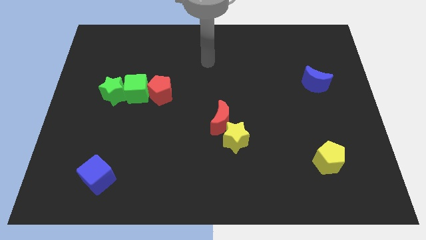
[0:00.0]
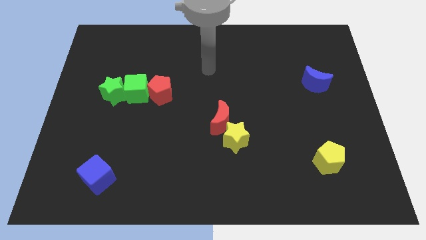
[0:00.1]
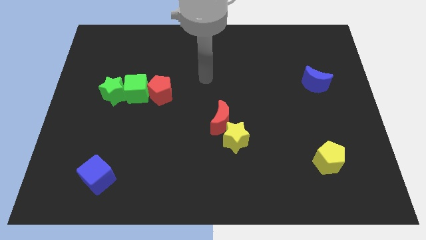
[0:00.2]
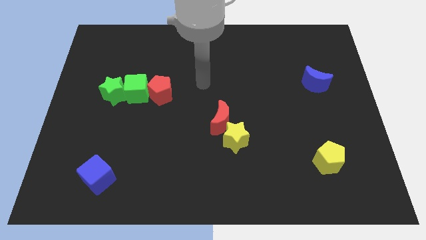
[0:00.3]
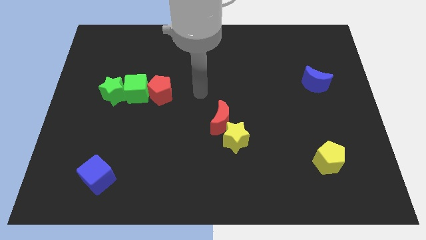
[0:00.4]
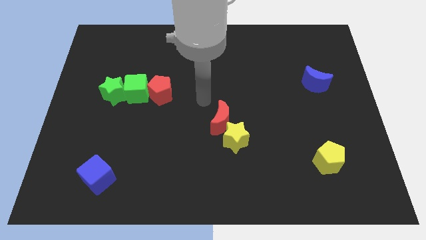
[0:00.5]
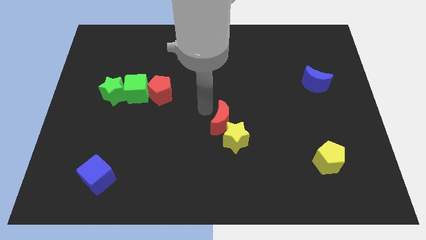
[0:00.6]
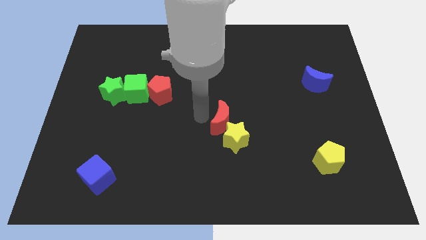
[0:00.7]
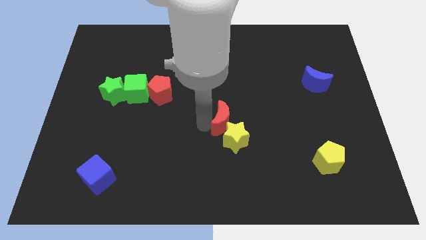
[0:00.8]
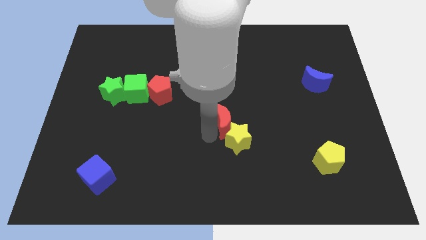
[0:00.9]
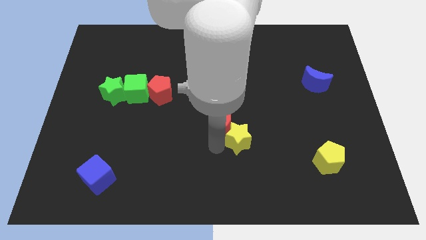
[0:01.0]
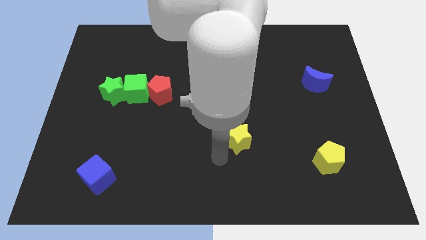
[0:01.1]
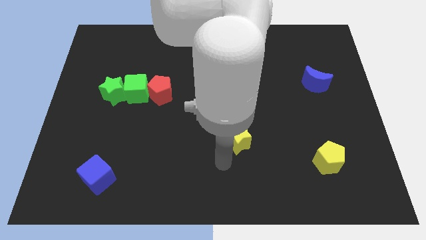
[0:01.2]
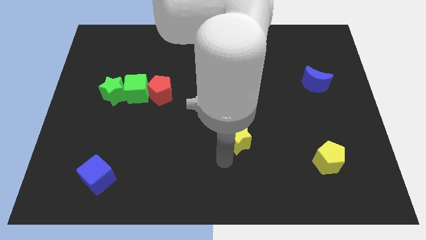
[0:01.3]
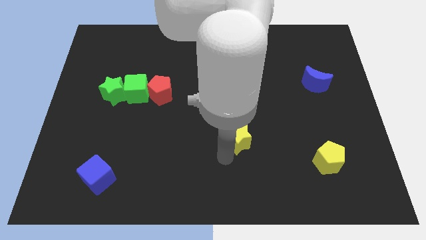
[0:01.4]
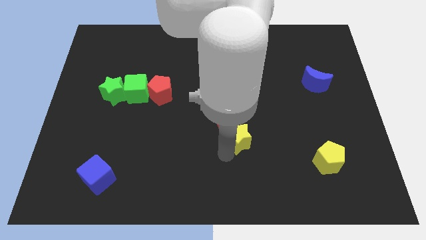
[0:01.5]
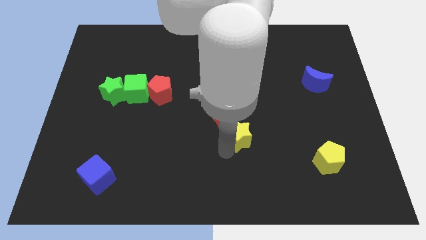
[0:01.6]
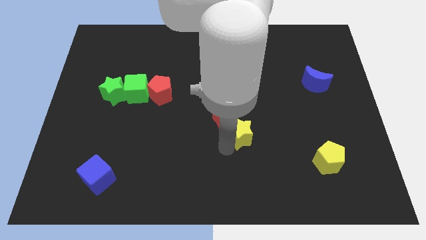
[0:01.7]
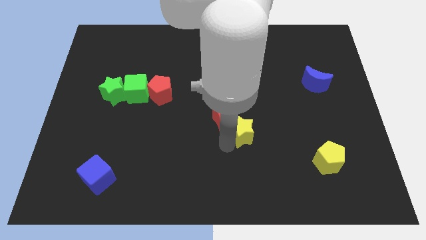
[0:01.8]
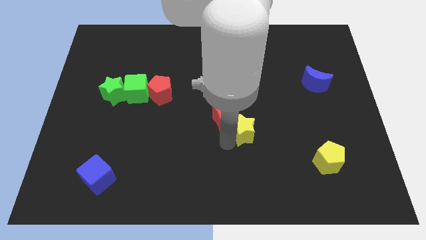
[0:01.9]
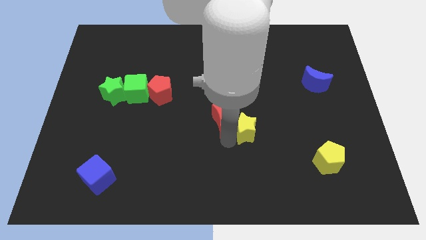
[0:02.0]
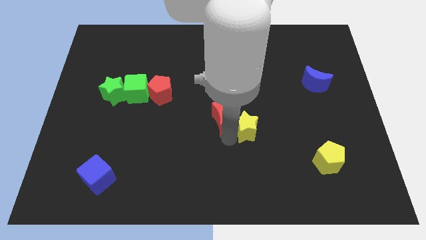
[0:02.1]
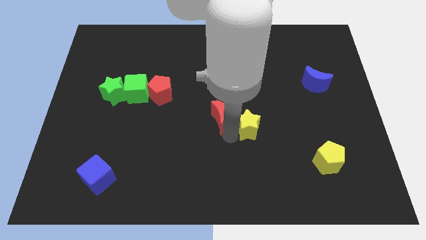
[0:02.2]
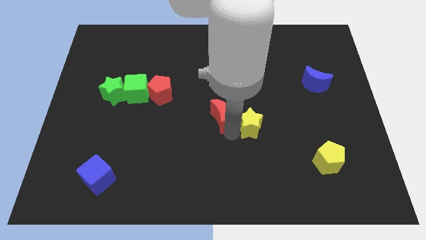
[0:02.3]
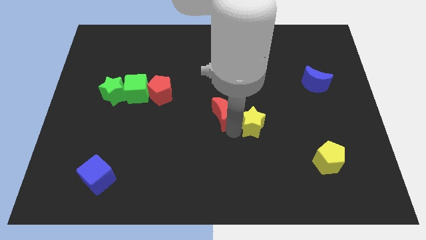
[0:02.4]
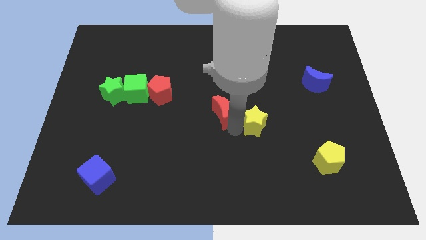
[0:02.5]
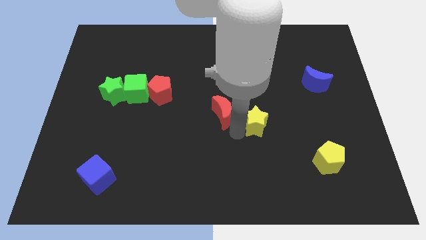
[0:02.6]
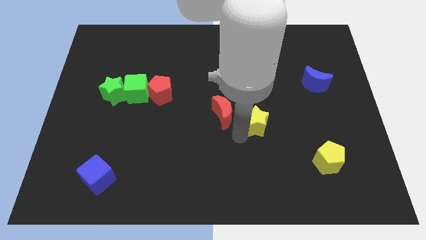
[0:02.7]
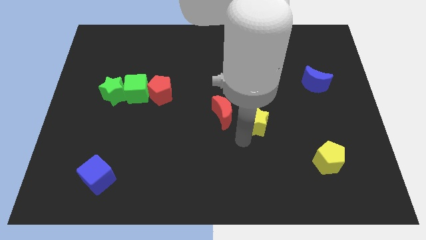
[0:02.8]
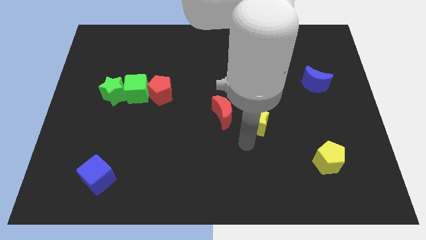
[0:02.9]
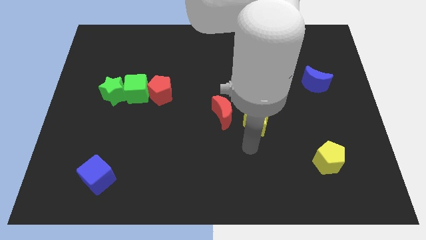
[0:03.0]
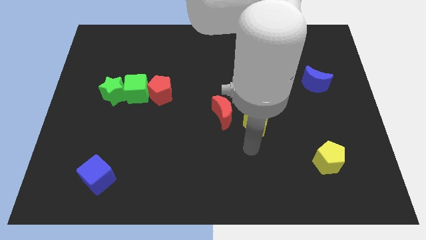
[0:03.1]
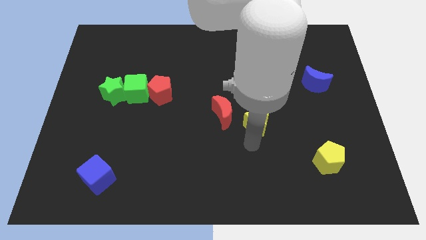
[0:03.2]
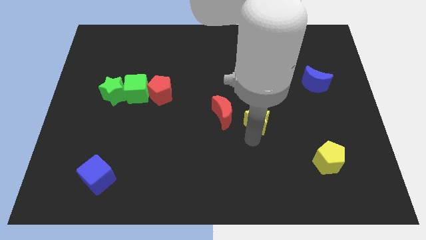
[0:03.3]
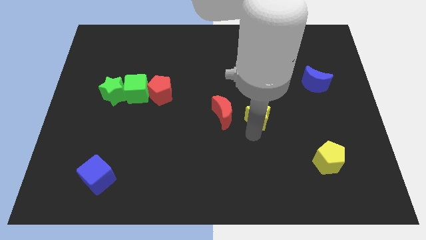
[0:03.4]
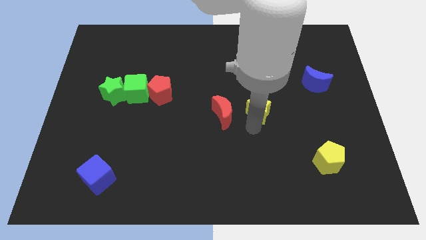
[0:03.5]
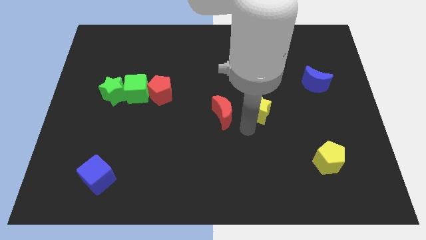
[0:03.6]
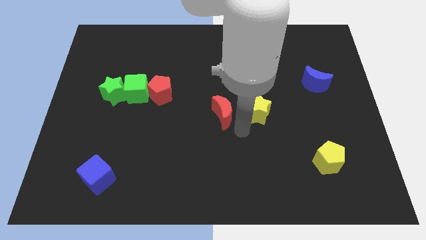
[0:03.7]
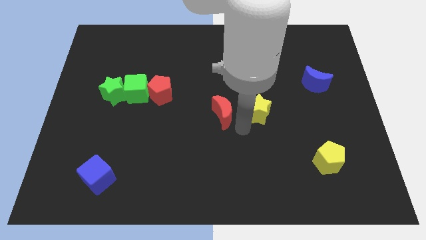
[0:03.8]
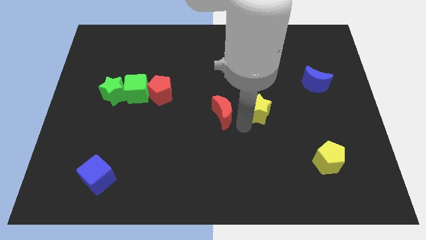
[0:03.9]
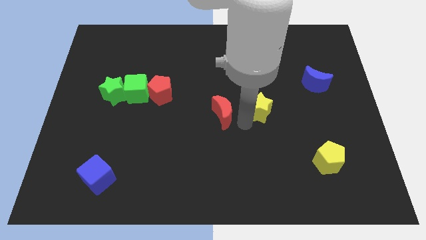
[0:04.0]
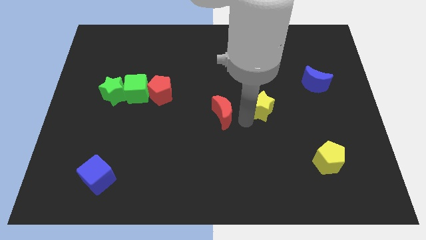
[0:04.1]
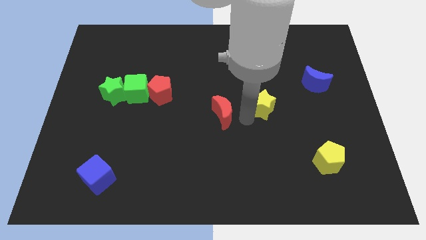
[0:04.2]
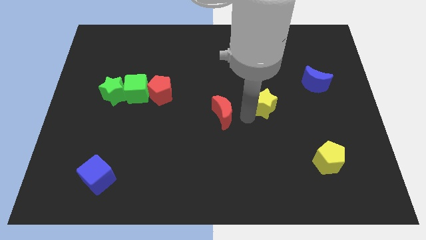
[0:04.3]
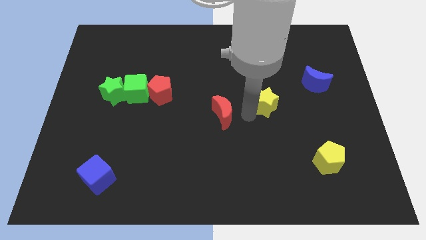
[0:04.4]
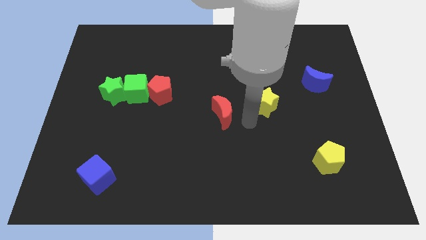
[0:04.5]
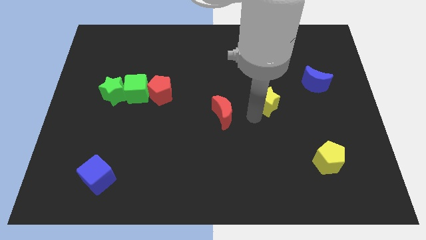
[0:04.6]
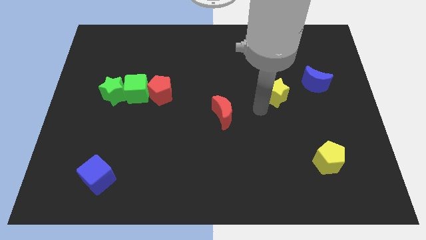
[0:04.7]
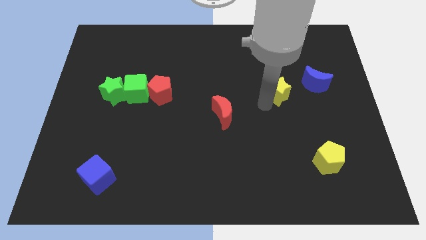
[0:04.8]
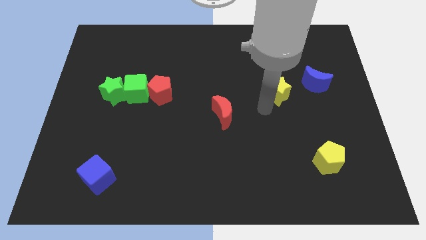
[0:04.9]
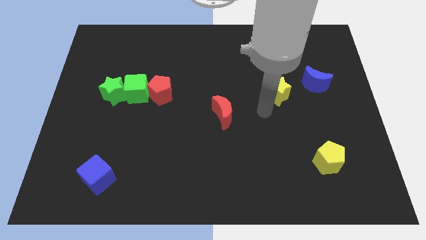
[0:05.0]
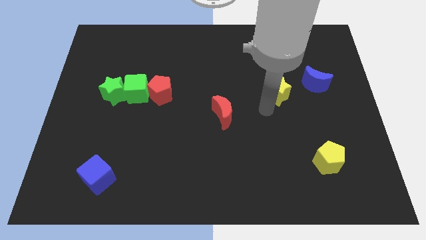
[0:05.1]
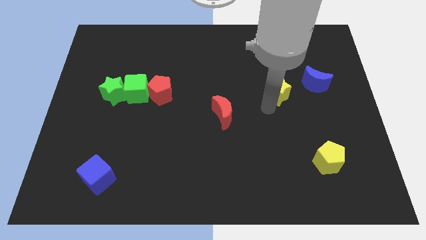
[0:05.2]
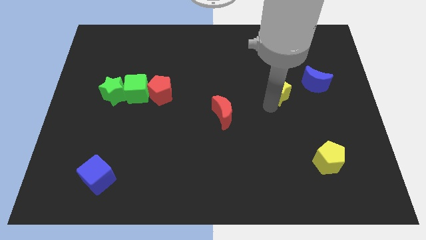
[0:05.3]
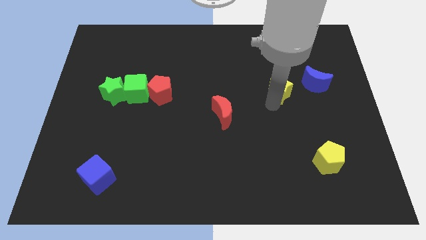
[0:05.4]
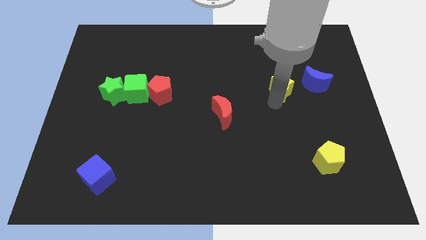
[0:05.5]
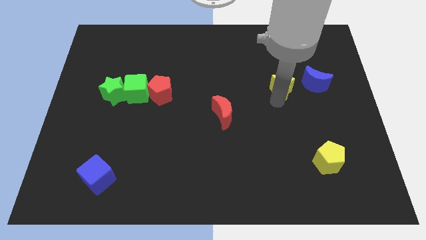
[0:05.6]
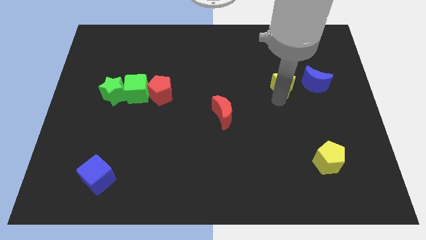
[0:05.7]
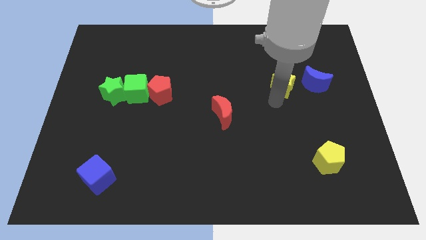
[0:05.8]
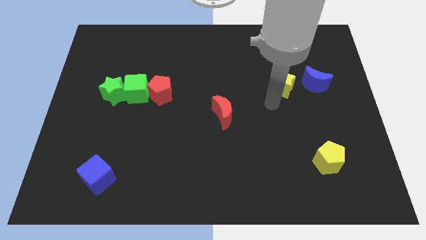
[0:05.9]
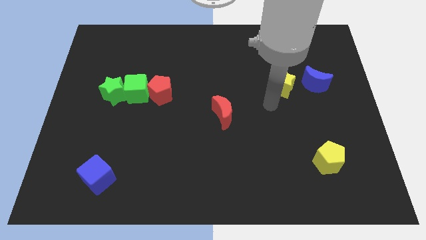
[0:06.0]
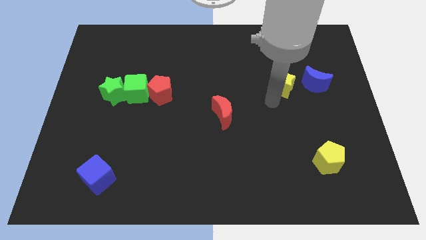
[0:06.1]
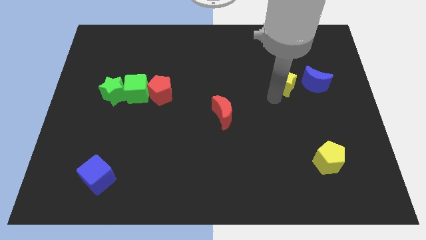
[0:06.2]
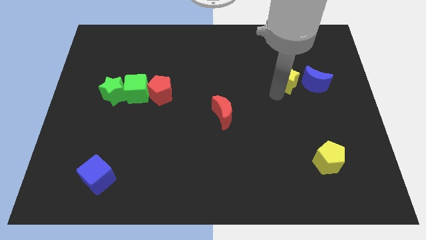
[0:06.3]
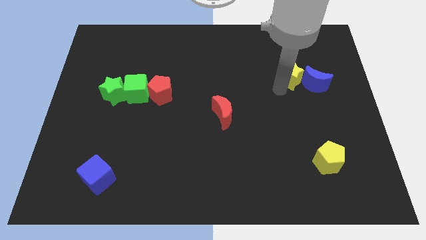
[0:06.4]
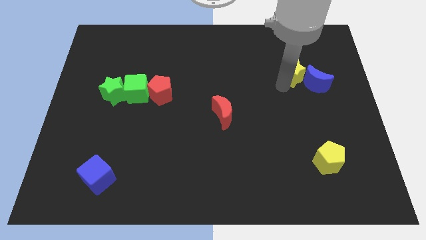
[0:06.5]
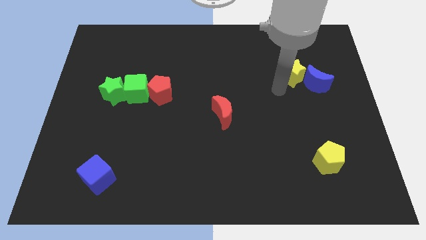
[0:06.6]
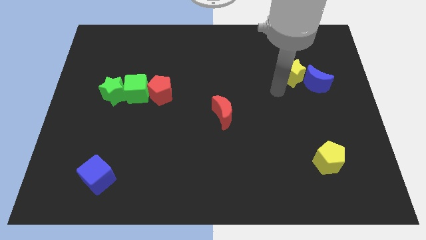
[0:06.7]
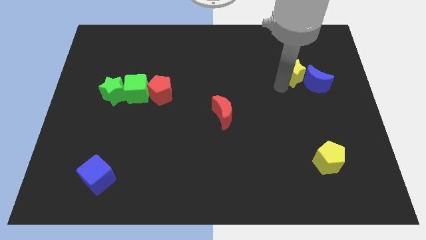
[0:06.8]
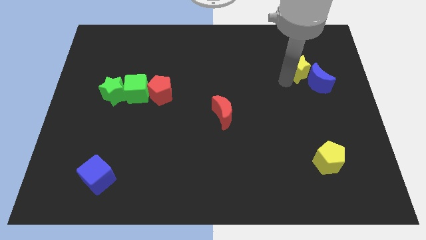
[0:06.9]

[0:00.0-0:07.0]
push the yellow star to the top of the blue moon
